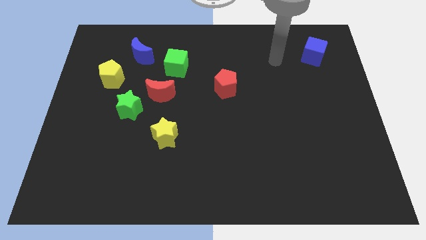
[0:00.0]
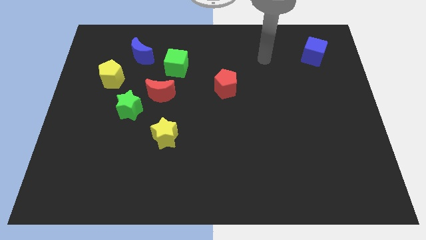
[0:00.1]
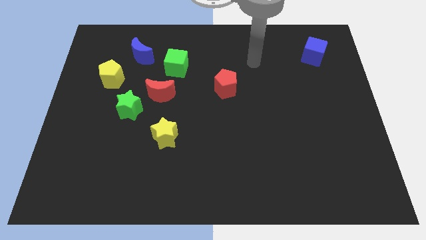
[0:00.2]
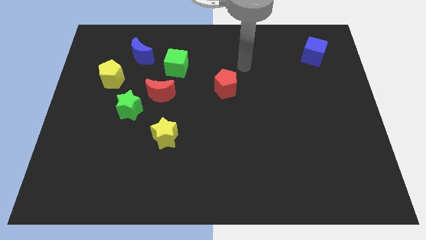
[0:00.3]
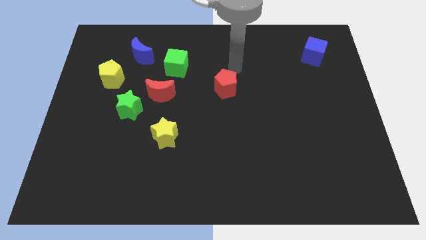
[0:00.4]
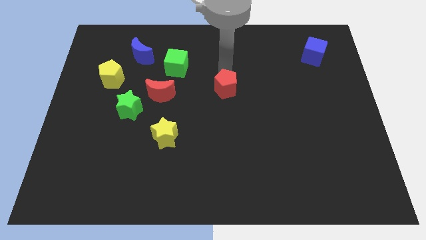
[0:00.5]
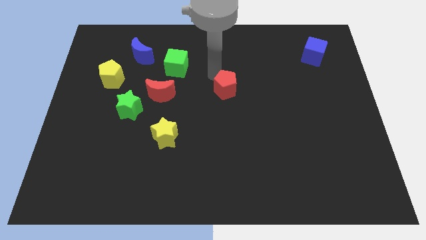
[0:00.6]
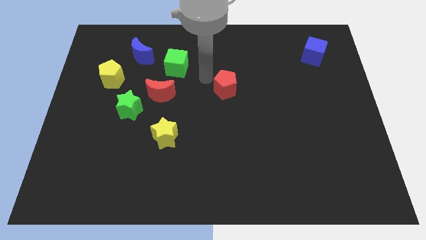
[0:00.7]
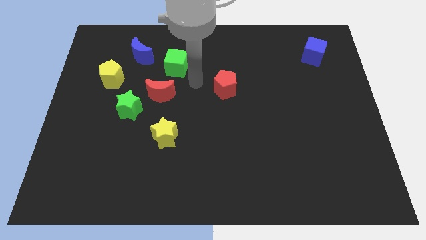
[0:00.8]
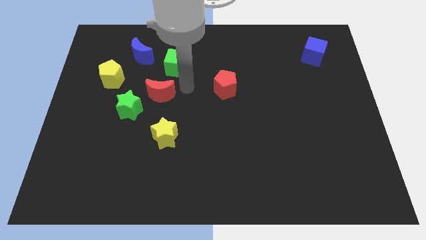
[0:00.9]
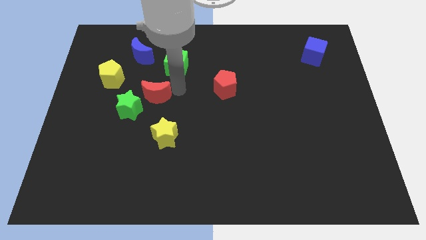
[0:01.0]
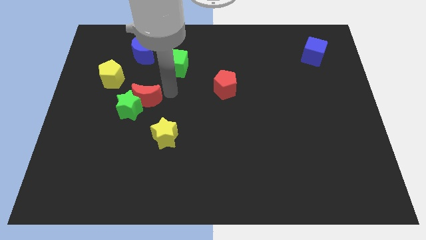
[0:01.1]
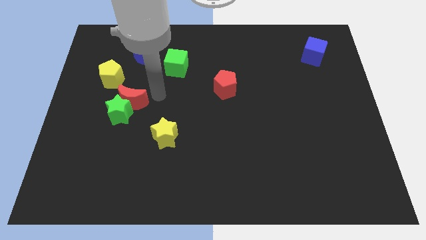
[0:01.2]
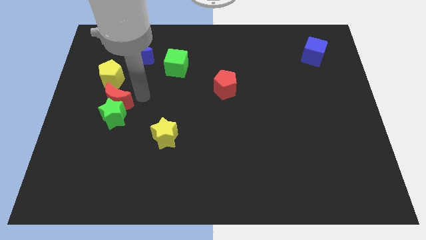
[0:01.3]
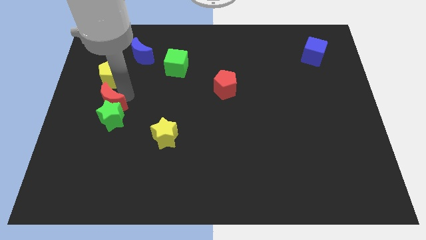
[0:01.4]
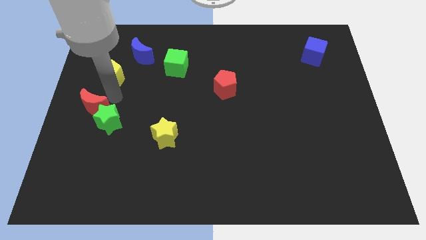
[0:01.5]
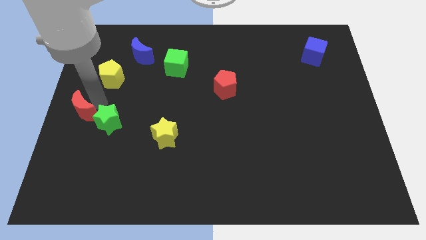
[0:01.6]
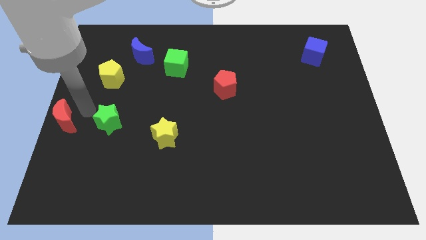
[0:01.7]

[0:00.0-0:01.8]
move the green star away from the red moon

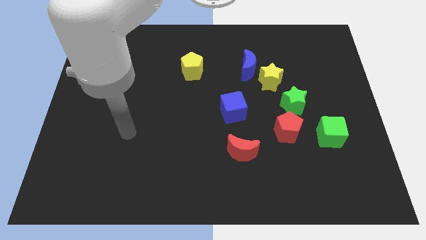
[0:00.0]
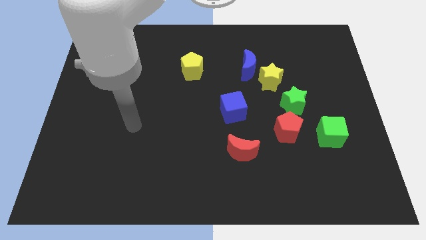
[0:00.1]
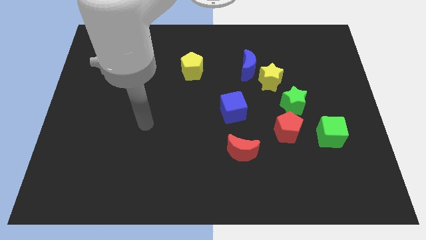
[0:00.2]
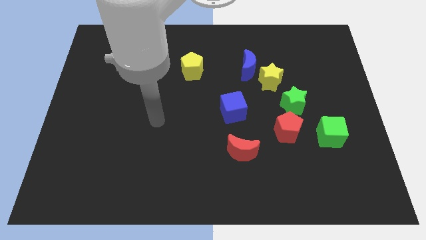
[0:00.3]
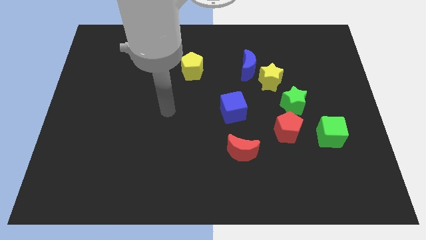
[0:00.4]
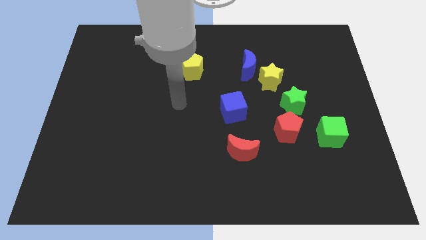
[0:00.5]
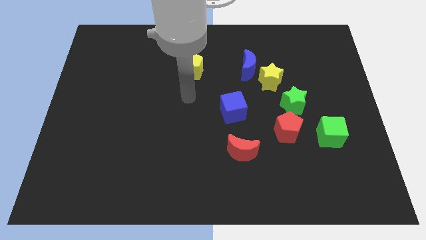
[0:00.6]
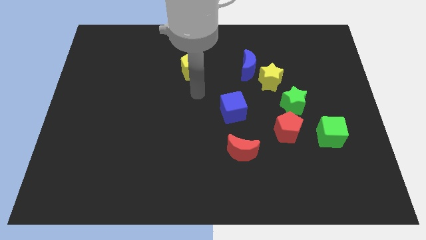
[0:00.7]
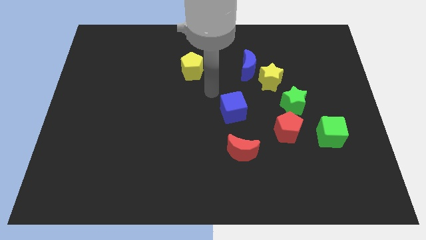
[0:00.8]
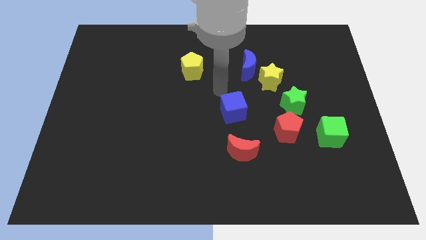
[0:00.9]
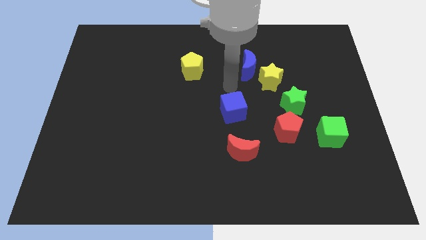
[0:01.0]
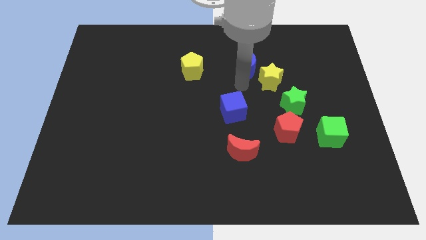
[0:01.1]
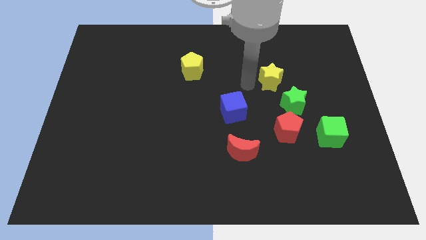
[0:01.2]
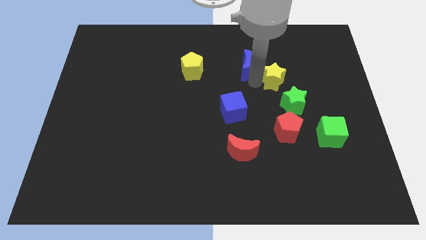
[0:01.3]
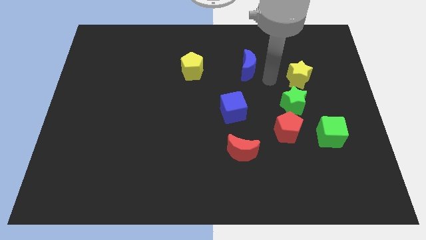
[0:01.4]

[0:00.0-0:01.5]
separate the blue moon from the yellow star

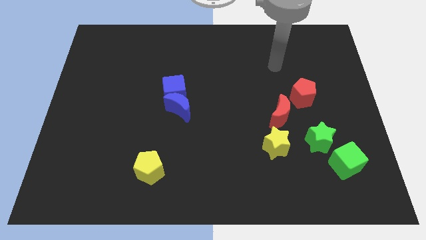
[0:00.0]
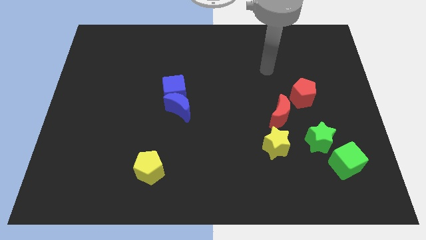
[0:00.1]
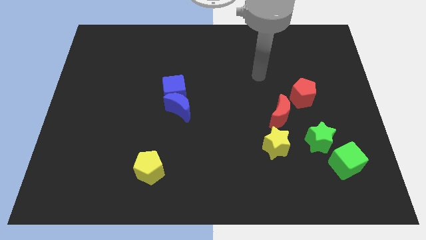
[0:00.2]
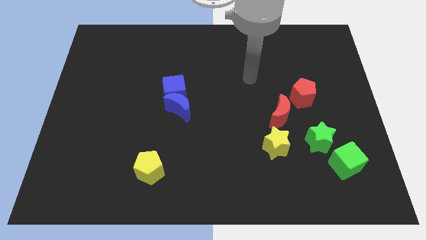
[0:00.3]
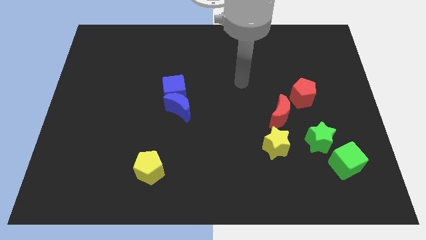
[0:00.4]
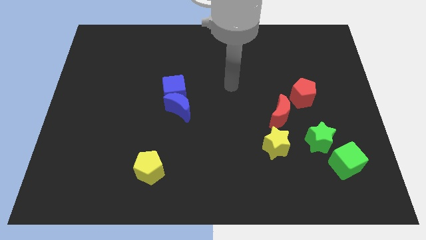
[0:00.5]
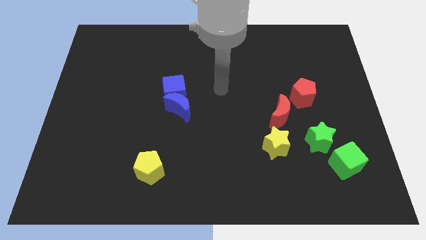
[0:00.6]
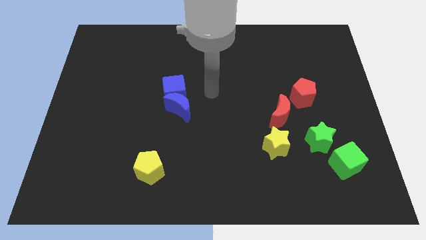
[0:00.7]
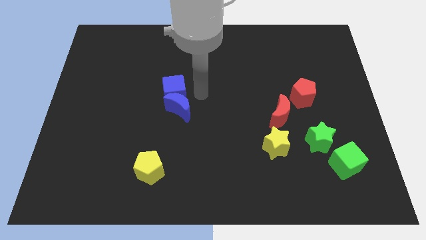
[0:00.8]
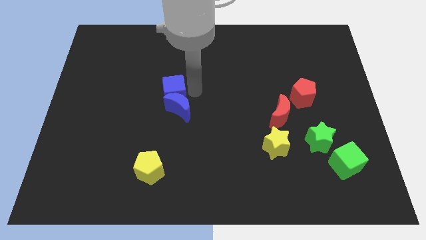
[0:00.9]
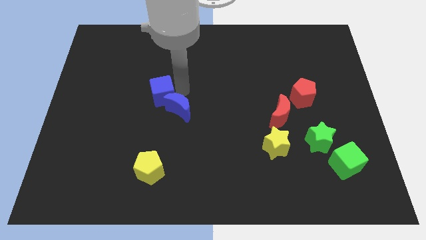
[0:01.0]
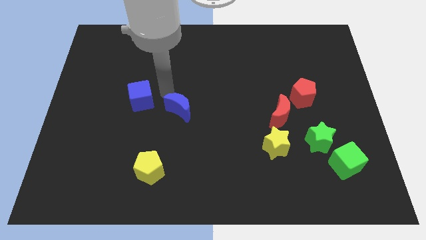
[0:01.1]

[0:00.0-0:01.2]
move the blue moon away from the blue cube

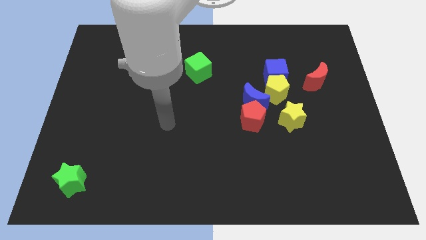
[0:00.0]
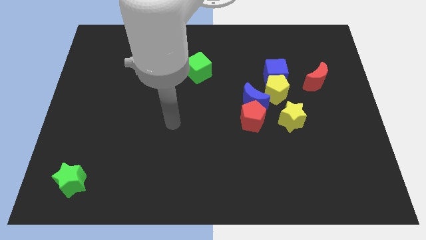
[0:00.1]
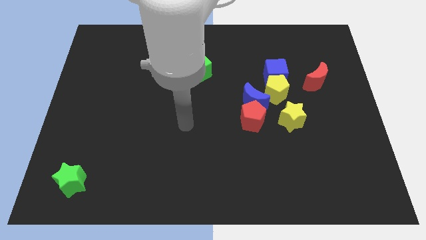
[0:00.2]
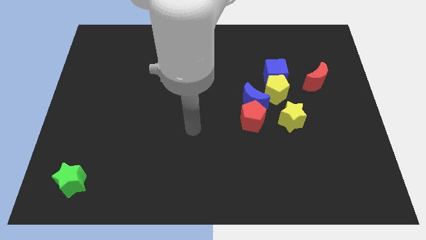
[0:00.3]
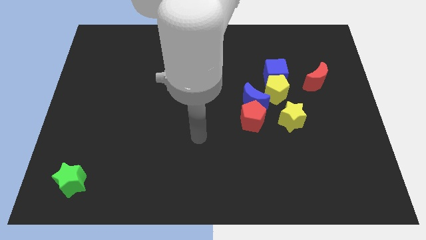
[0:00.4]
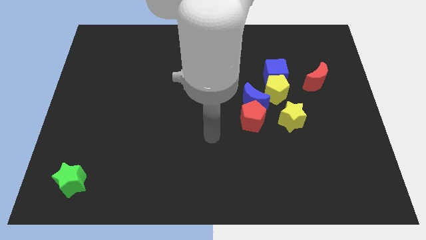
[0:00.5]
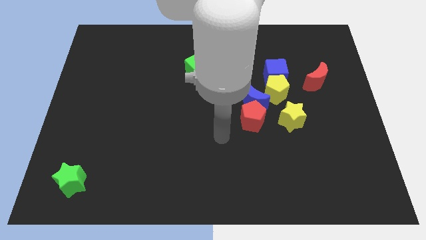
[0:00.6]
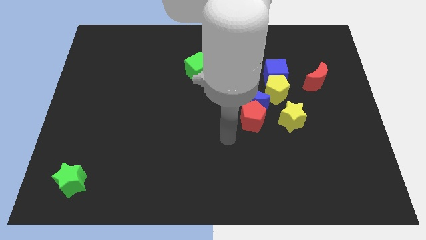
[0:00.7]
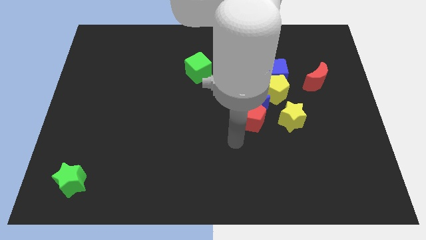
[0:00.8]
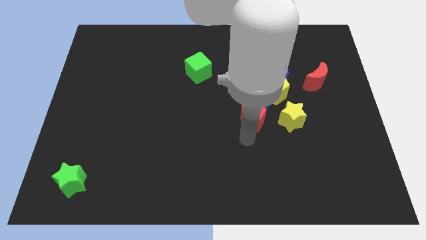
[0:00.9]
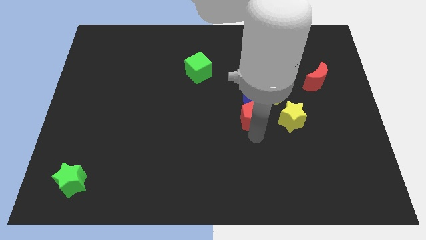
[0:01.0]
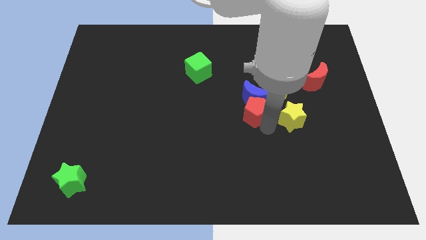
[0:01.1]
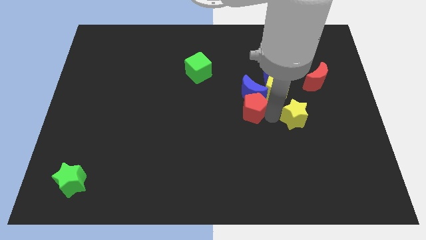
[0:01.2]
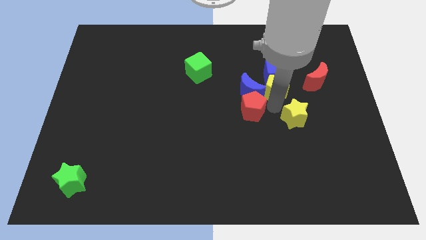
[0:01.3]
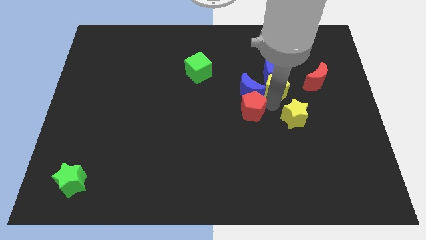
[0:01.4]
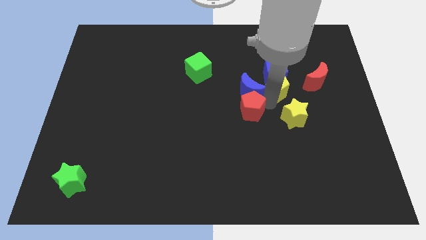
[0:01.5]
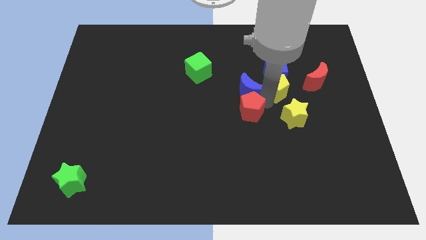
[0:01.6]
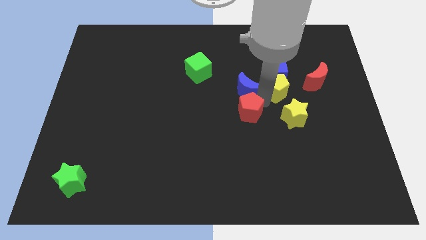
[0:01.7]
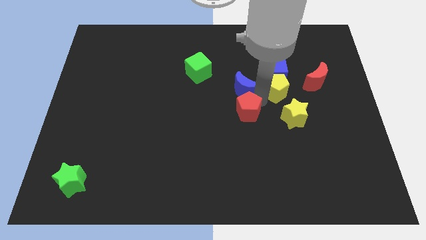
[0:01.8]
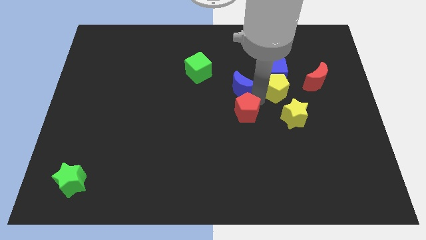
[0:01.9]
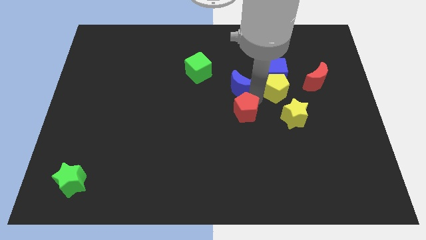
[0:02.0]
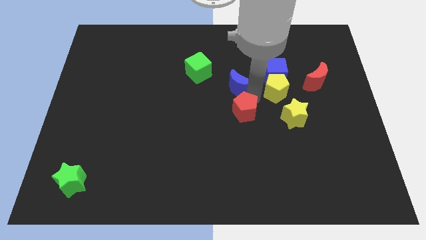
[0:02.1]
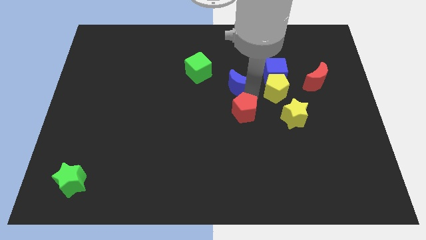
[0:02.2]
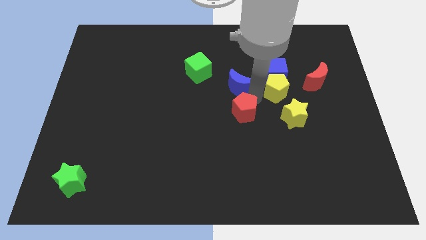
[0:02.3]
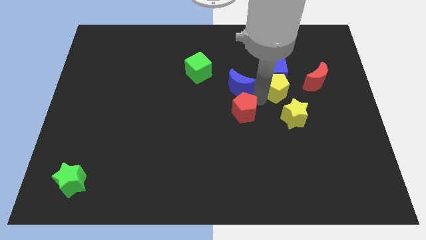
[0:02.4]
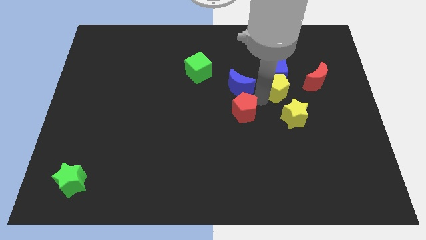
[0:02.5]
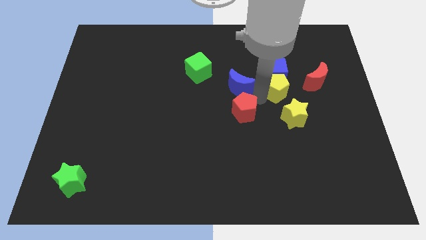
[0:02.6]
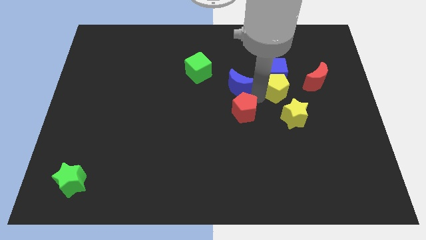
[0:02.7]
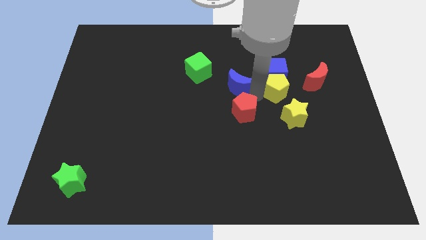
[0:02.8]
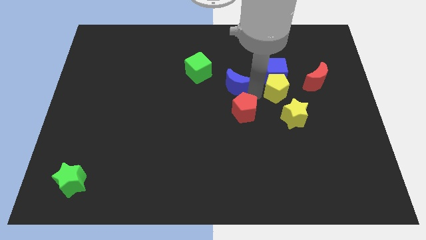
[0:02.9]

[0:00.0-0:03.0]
separate the blue moon from the red pentagon, yellow pentagon, and yellow star

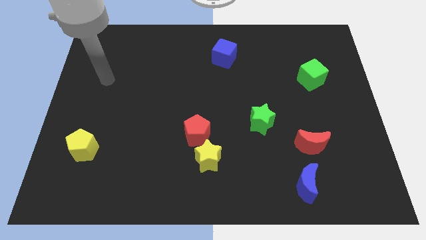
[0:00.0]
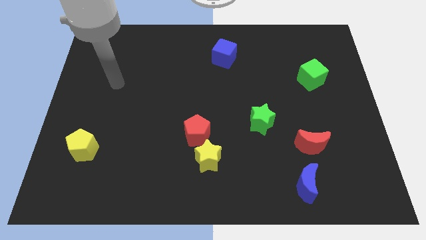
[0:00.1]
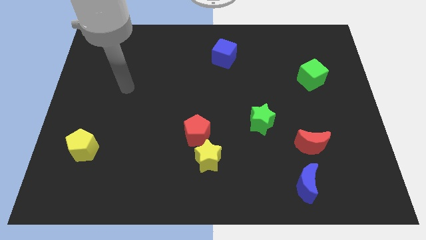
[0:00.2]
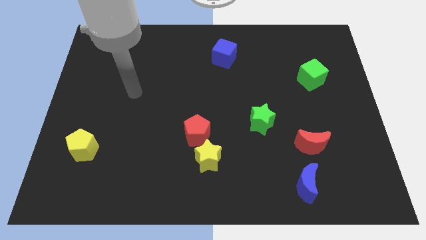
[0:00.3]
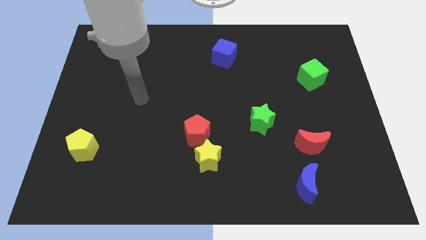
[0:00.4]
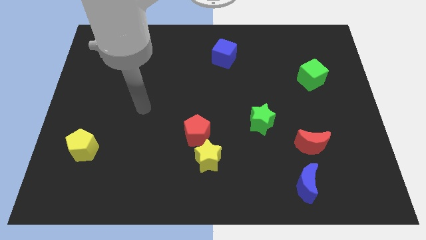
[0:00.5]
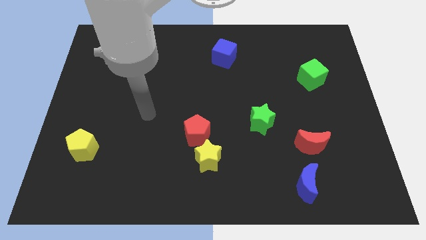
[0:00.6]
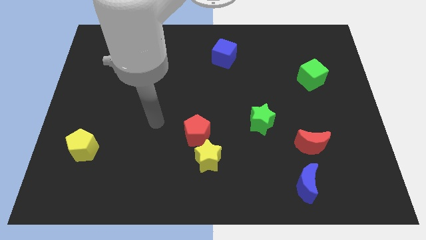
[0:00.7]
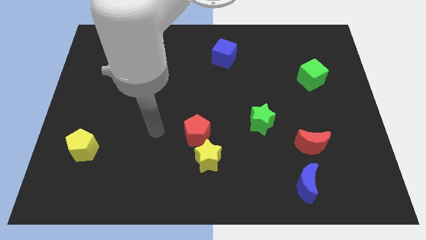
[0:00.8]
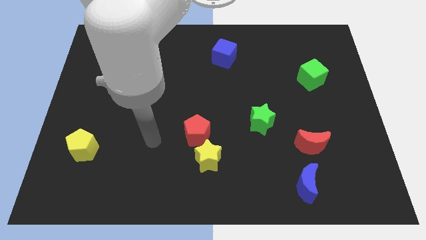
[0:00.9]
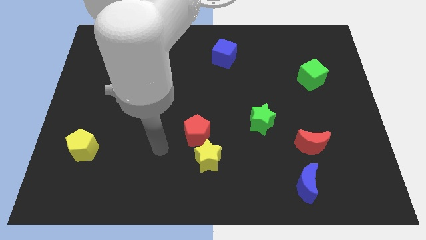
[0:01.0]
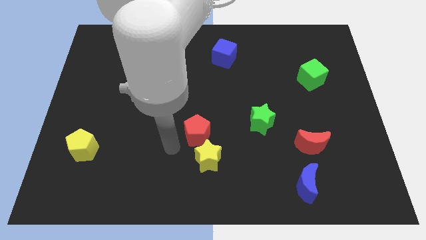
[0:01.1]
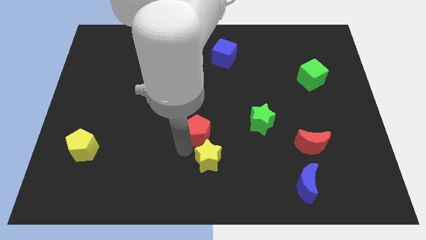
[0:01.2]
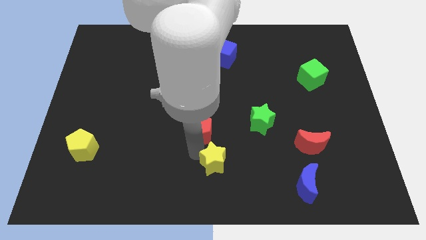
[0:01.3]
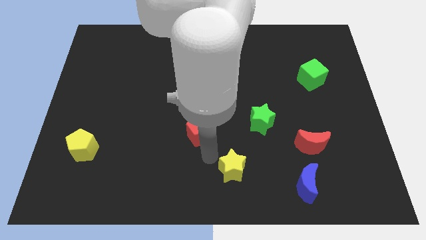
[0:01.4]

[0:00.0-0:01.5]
move the red pentagon away from the yellow star

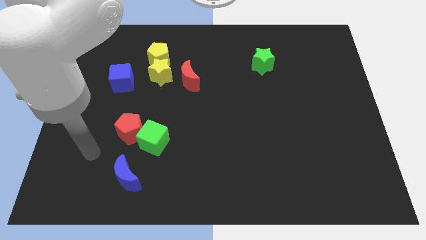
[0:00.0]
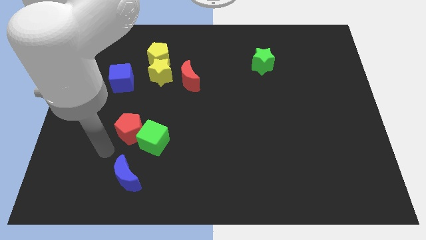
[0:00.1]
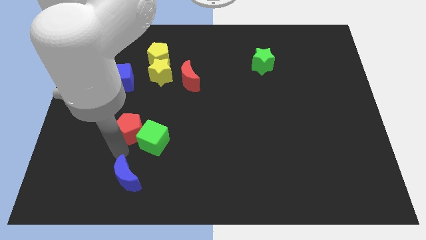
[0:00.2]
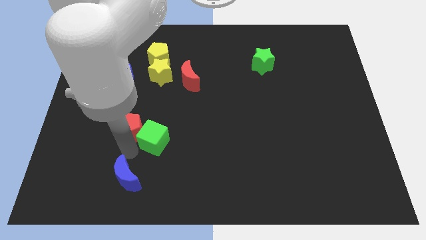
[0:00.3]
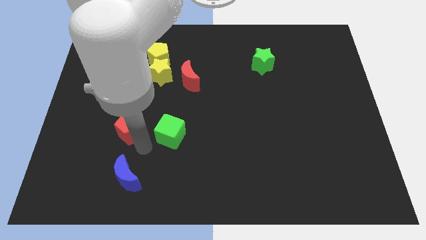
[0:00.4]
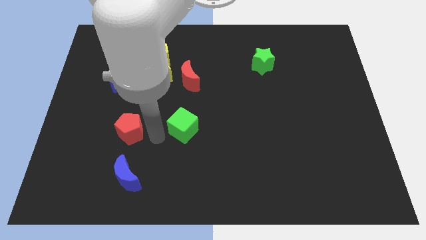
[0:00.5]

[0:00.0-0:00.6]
separate the red pentagon from the green cube
